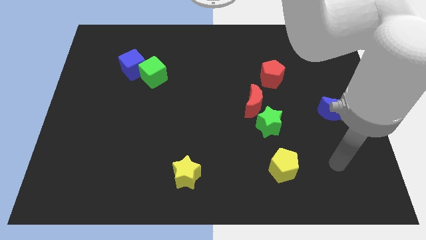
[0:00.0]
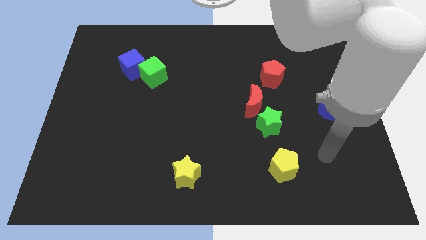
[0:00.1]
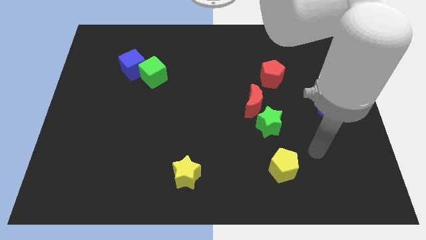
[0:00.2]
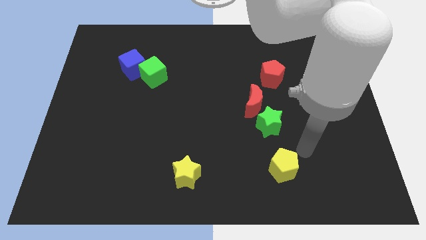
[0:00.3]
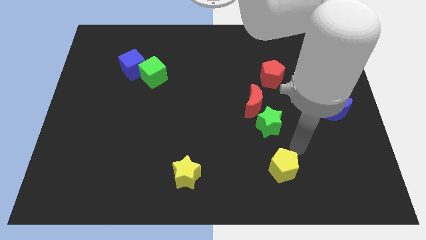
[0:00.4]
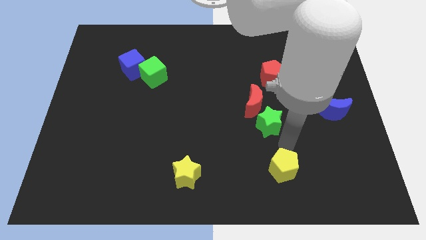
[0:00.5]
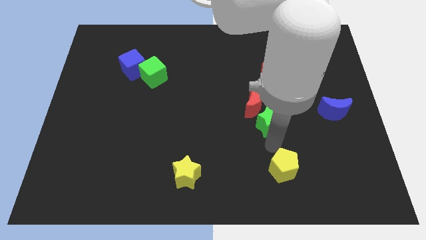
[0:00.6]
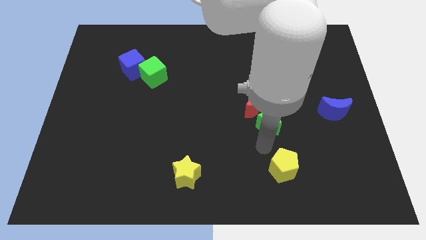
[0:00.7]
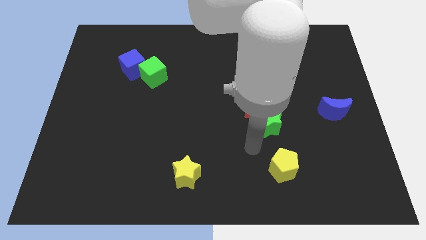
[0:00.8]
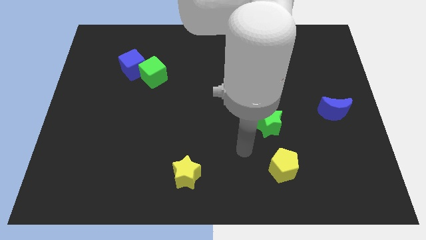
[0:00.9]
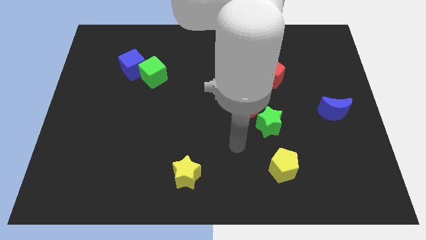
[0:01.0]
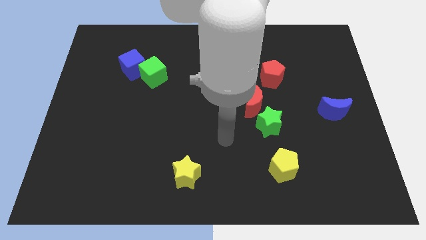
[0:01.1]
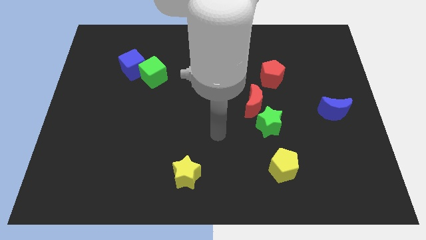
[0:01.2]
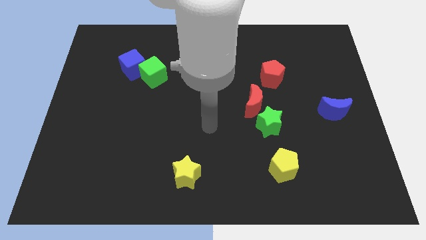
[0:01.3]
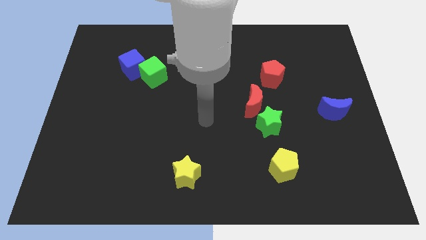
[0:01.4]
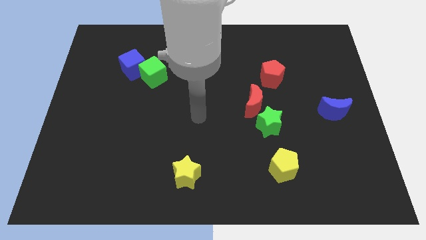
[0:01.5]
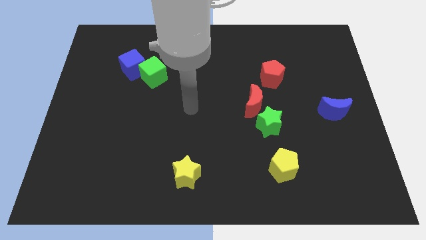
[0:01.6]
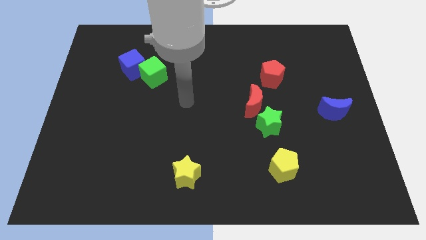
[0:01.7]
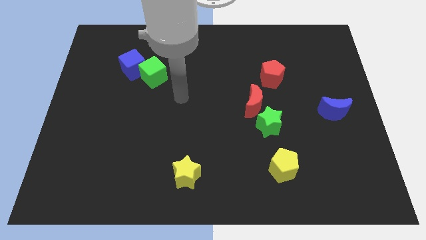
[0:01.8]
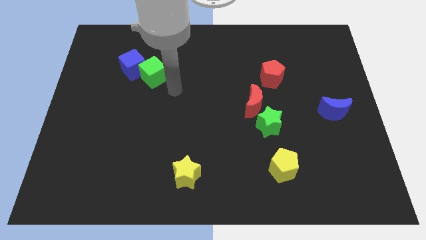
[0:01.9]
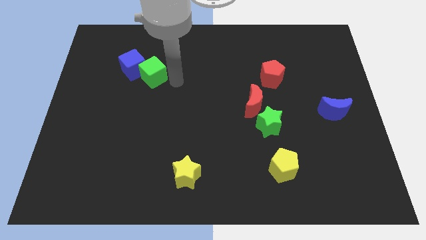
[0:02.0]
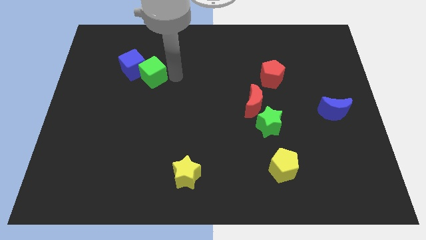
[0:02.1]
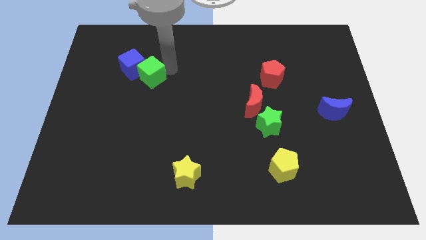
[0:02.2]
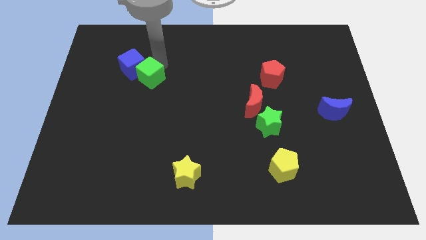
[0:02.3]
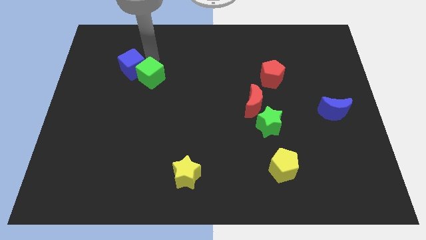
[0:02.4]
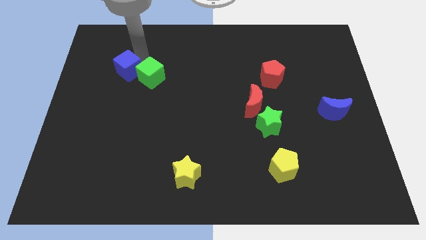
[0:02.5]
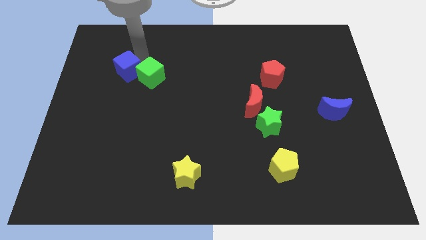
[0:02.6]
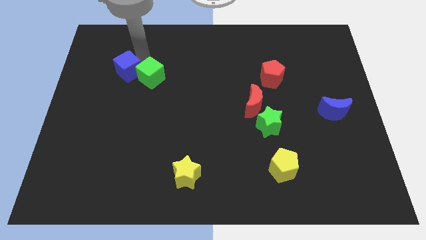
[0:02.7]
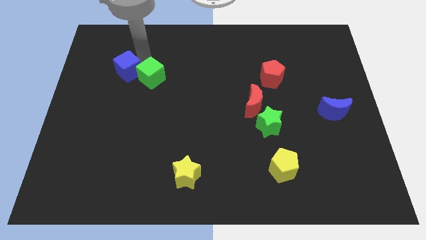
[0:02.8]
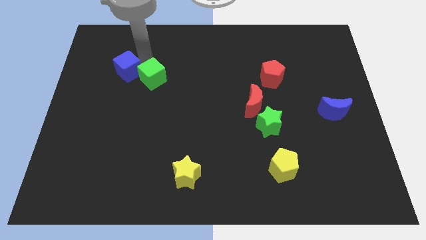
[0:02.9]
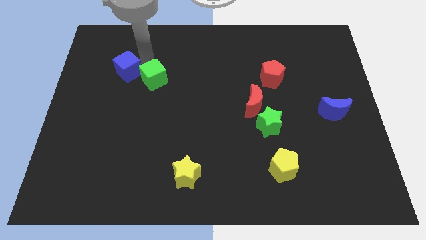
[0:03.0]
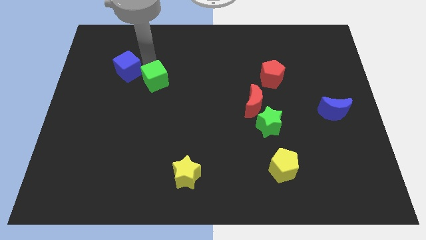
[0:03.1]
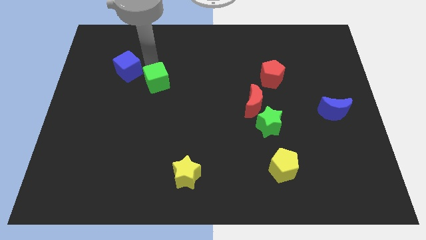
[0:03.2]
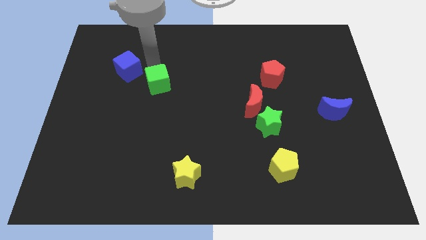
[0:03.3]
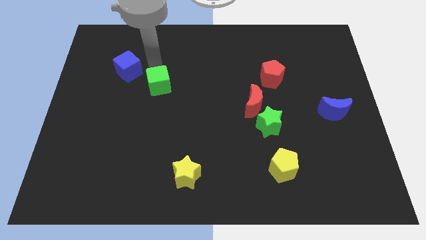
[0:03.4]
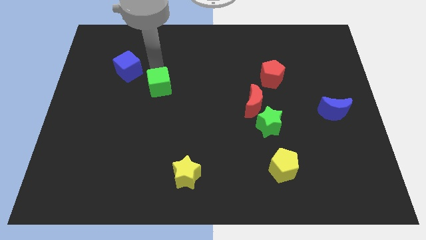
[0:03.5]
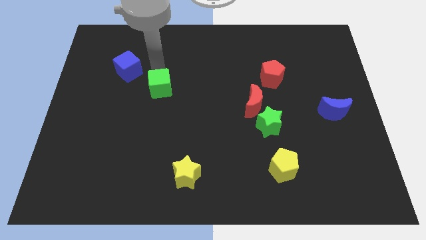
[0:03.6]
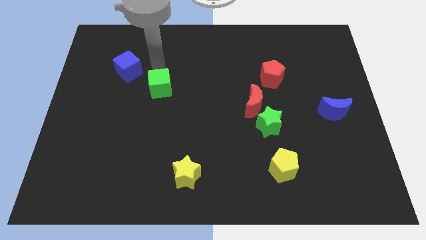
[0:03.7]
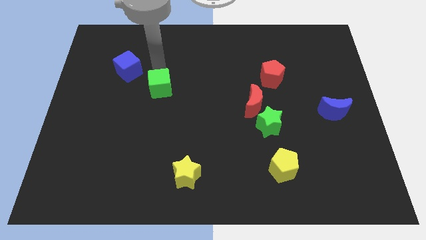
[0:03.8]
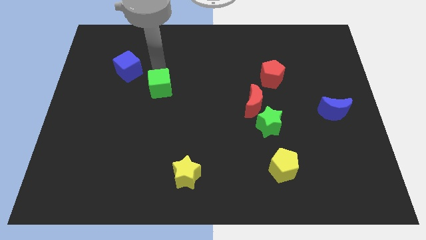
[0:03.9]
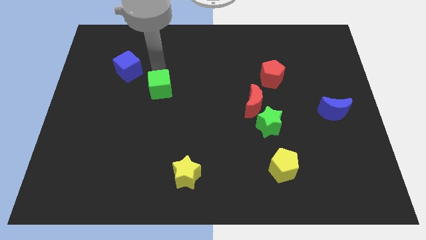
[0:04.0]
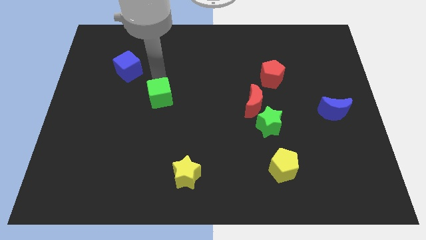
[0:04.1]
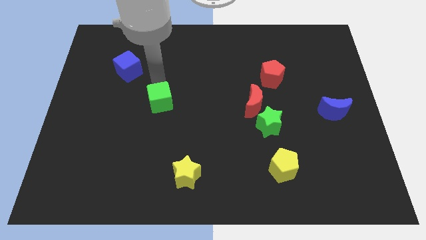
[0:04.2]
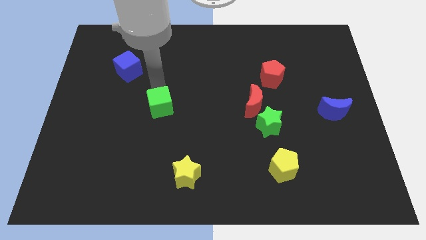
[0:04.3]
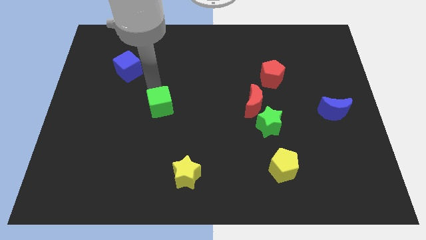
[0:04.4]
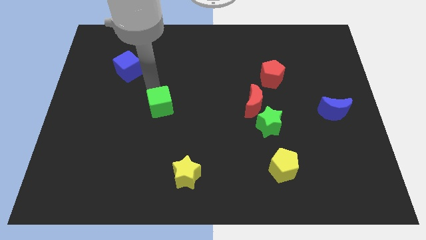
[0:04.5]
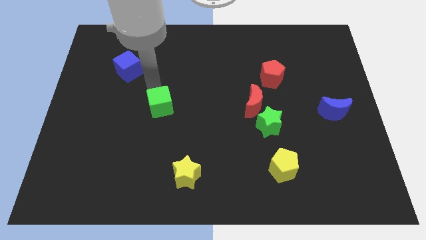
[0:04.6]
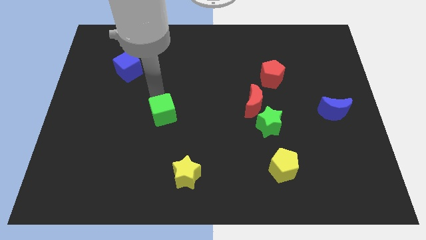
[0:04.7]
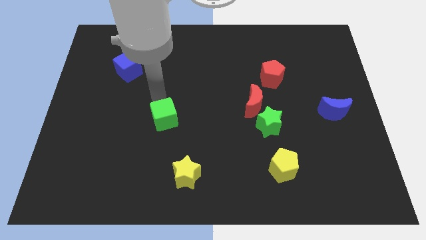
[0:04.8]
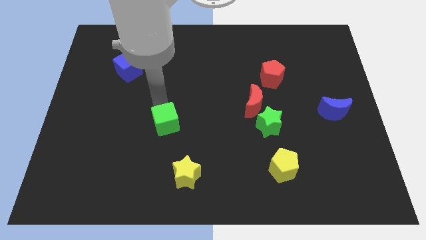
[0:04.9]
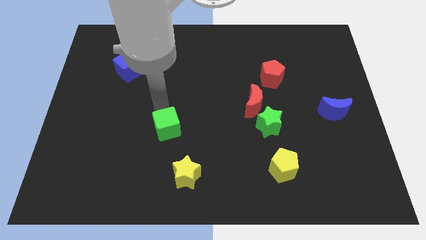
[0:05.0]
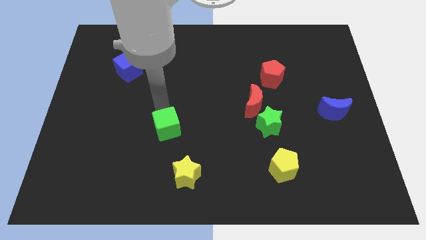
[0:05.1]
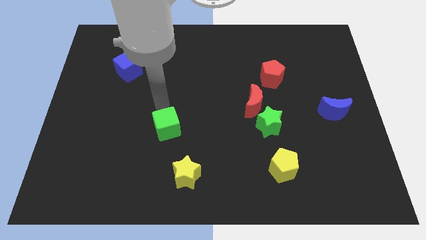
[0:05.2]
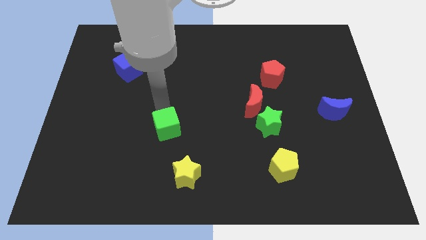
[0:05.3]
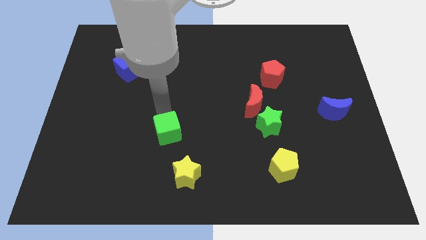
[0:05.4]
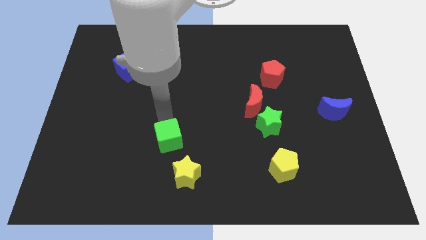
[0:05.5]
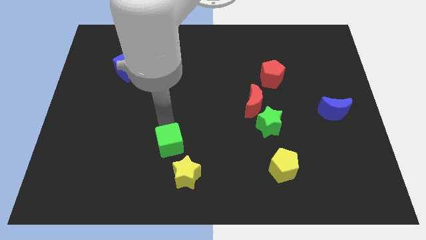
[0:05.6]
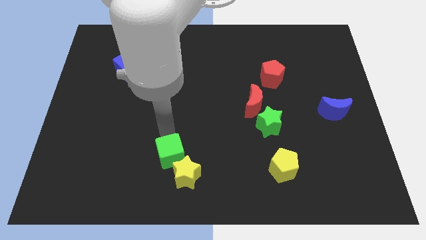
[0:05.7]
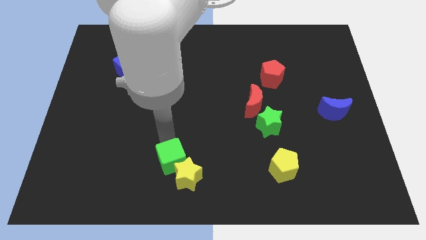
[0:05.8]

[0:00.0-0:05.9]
put the green cube next to the yellow star

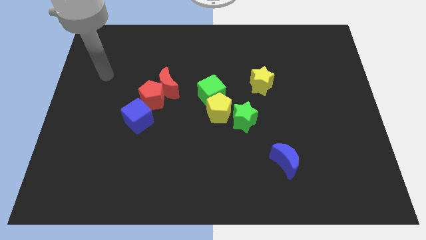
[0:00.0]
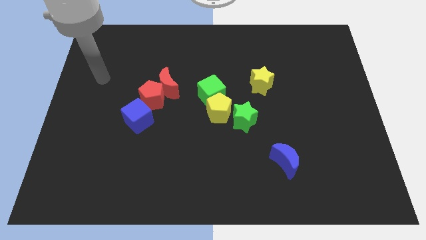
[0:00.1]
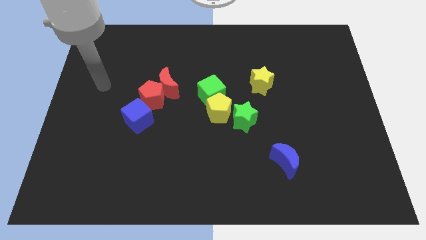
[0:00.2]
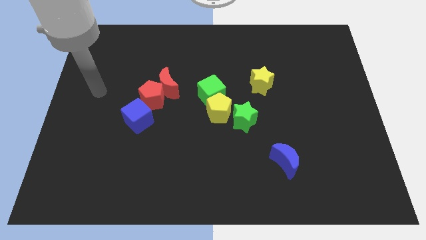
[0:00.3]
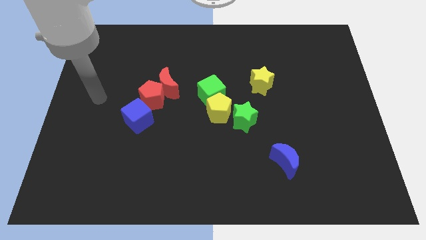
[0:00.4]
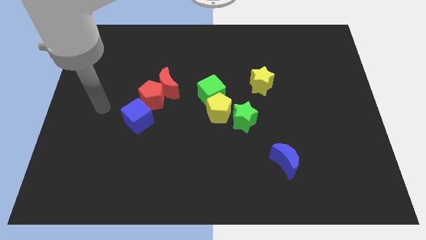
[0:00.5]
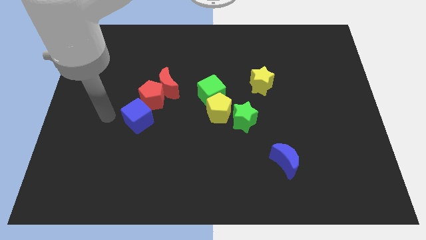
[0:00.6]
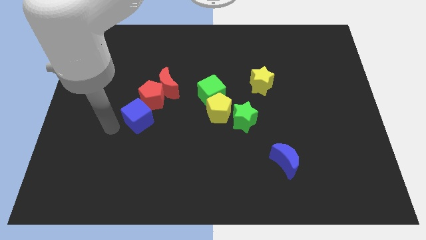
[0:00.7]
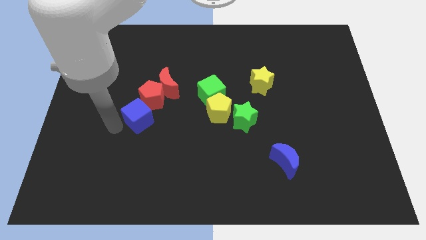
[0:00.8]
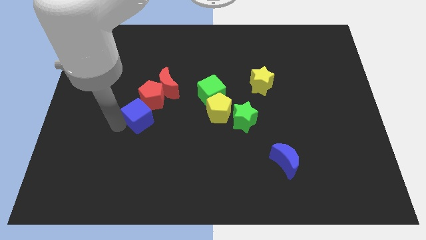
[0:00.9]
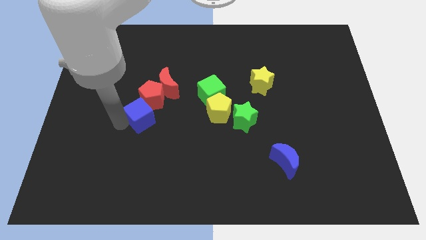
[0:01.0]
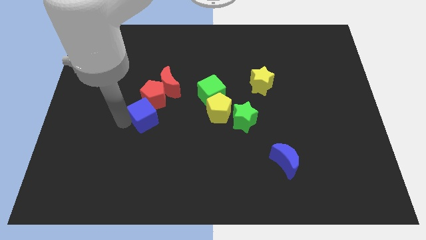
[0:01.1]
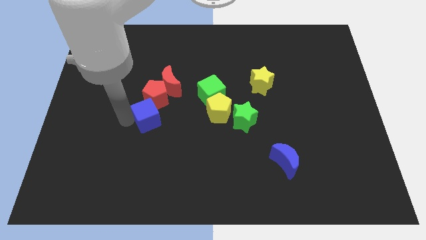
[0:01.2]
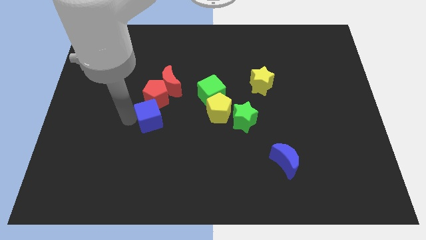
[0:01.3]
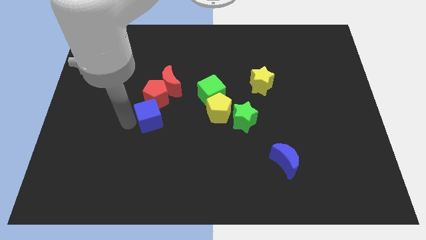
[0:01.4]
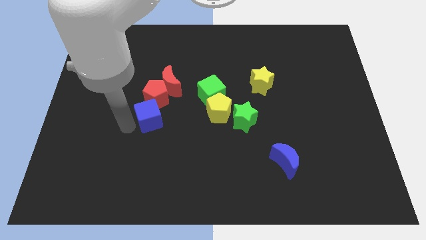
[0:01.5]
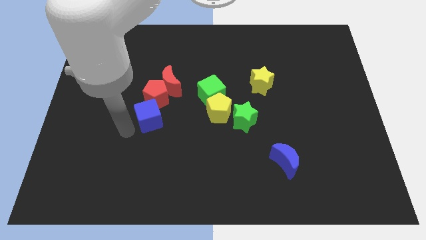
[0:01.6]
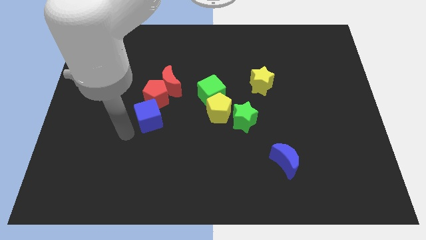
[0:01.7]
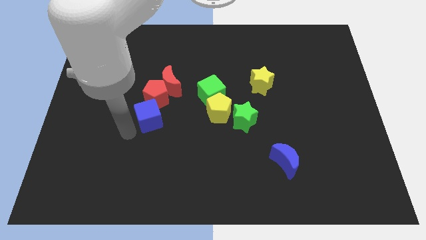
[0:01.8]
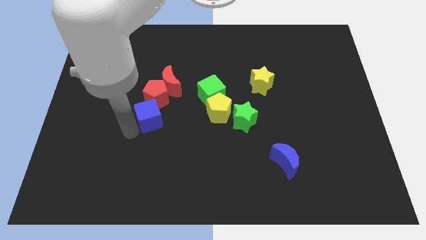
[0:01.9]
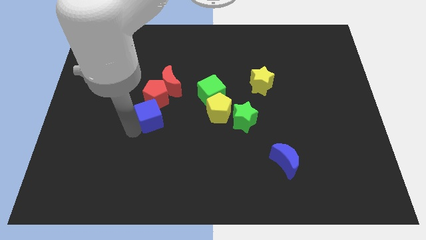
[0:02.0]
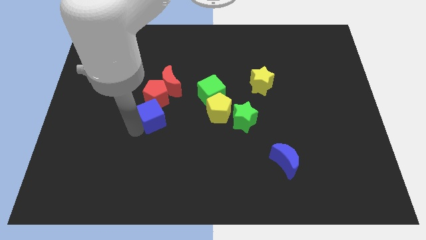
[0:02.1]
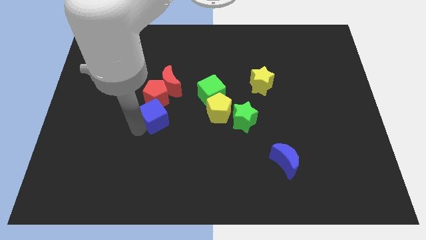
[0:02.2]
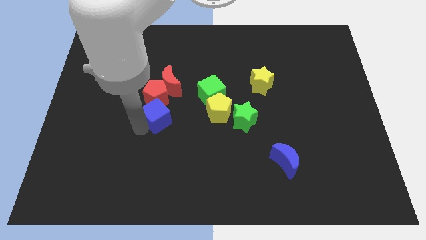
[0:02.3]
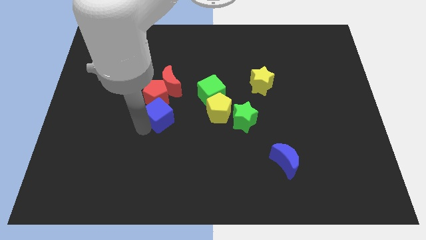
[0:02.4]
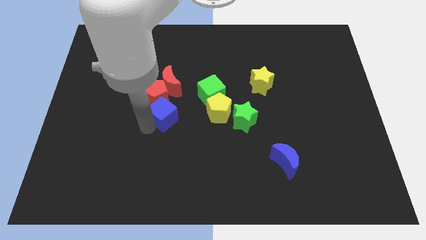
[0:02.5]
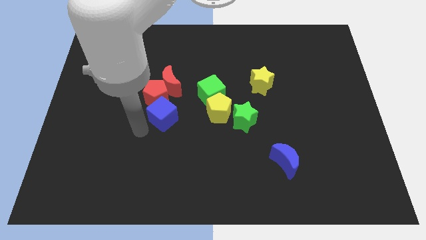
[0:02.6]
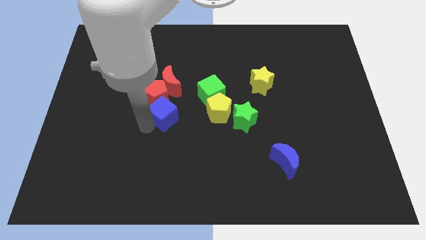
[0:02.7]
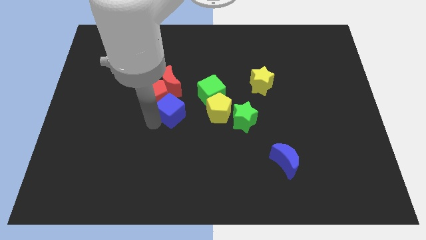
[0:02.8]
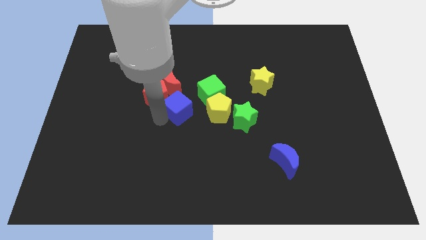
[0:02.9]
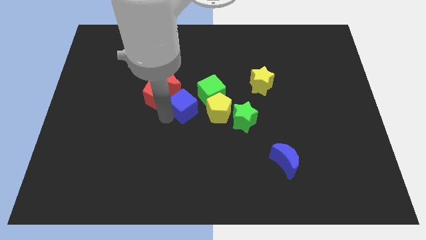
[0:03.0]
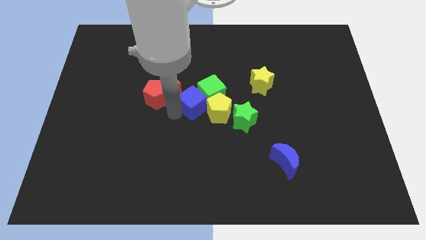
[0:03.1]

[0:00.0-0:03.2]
put the blue cube next to the green cube
